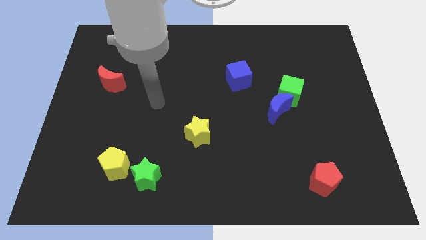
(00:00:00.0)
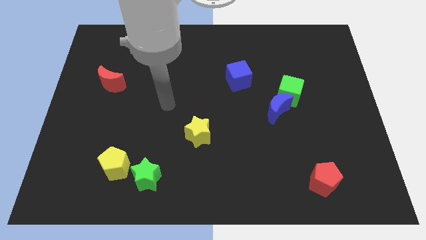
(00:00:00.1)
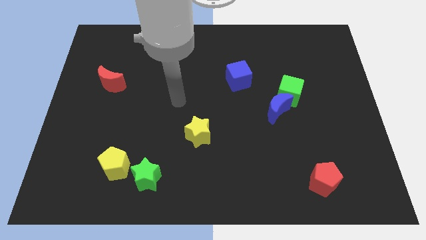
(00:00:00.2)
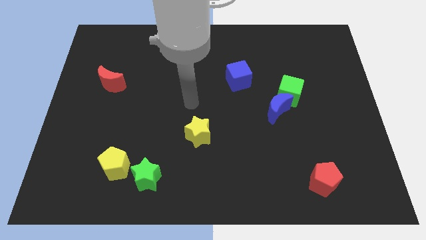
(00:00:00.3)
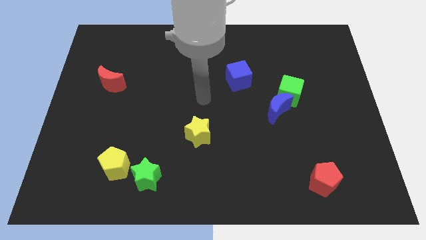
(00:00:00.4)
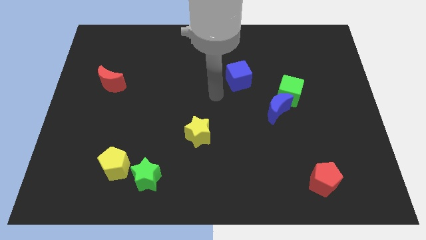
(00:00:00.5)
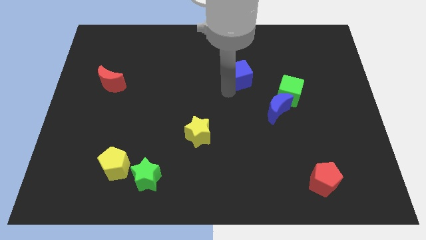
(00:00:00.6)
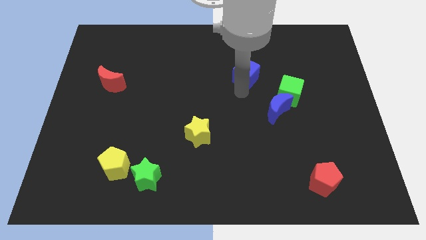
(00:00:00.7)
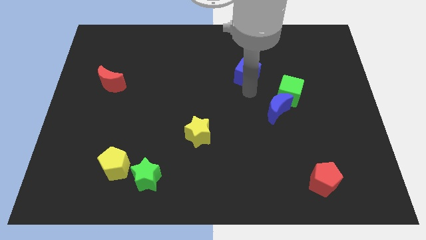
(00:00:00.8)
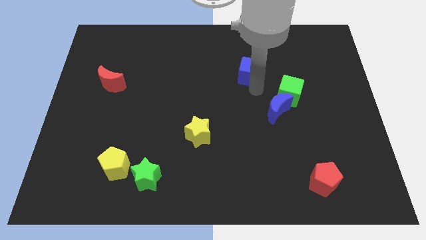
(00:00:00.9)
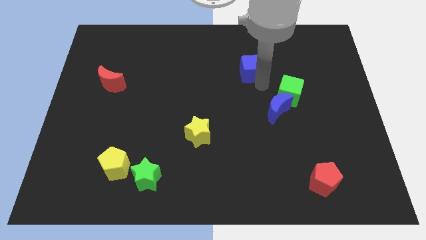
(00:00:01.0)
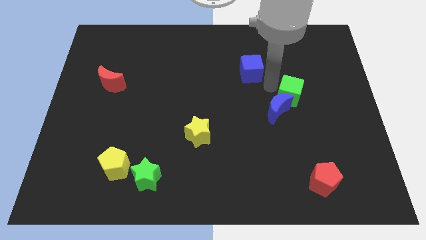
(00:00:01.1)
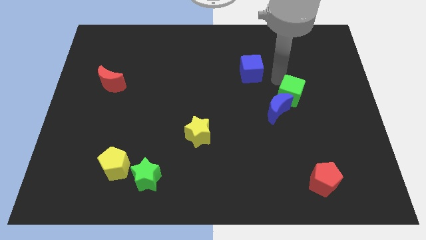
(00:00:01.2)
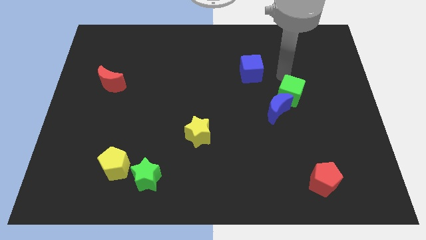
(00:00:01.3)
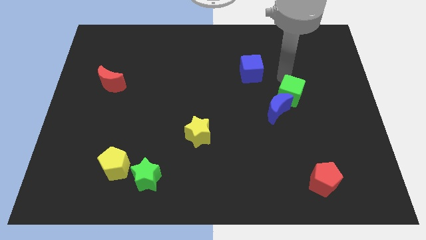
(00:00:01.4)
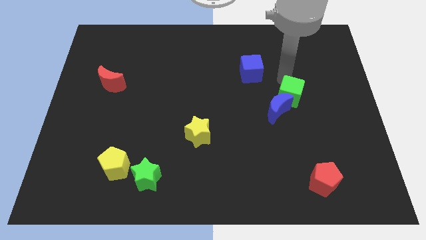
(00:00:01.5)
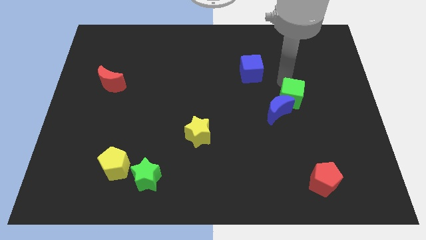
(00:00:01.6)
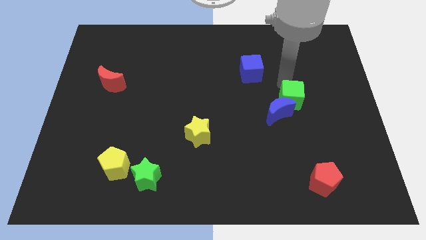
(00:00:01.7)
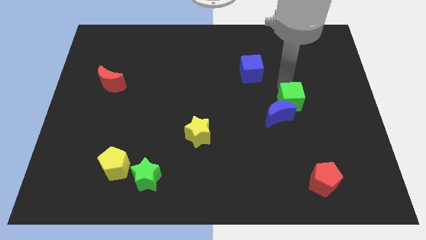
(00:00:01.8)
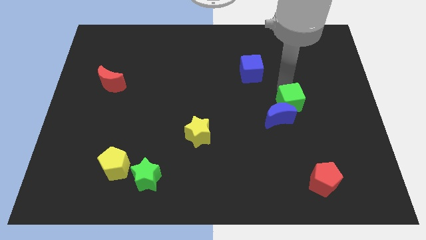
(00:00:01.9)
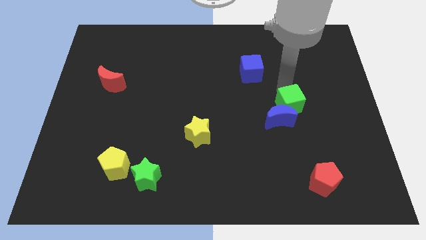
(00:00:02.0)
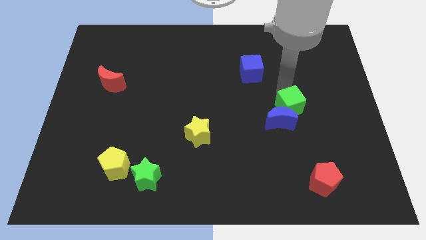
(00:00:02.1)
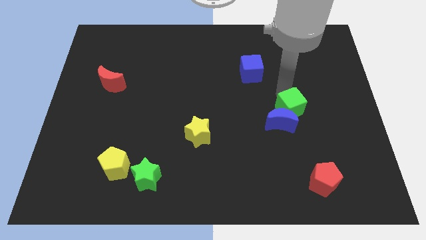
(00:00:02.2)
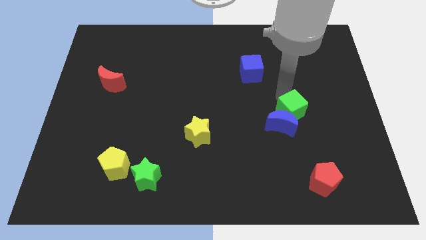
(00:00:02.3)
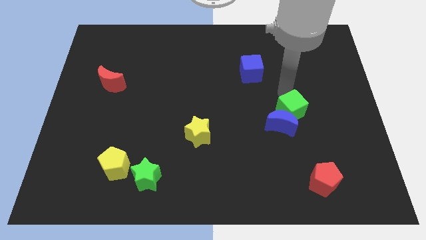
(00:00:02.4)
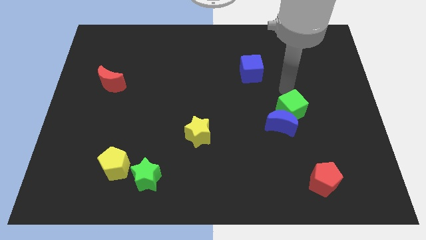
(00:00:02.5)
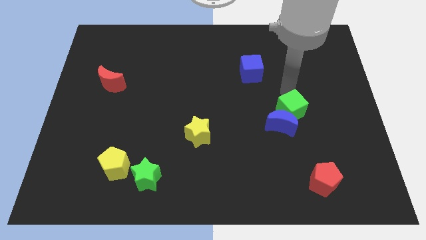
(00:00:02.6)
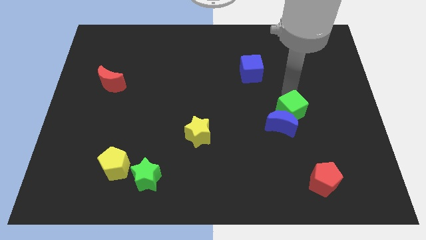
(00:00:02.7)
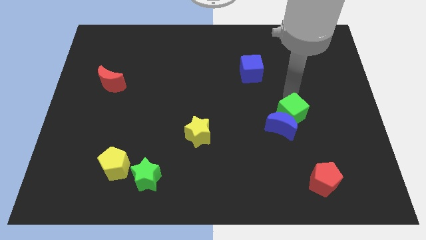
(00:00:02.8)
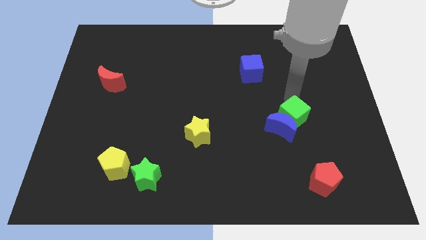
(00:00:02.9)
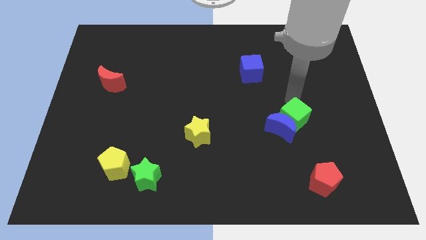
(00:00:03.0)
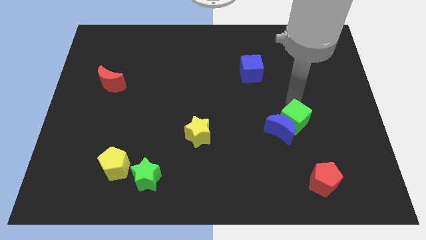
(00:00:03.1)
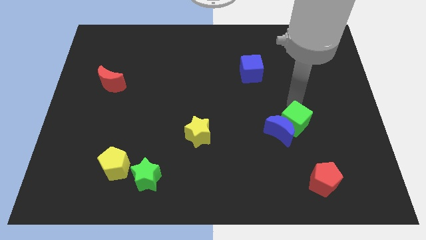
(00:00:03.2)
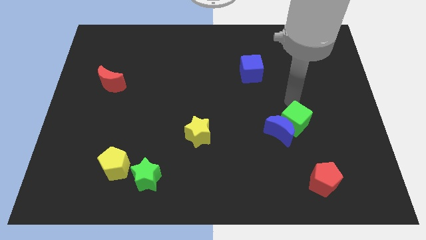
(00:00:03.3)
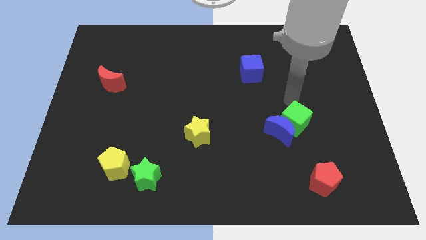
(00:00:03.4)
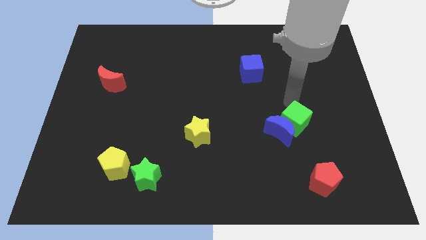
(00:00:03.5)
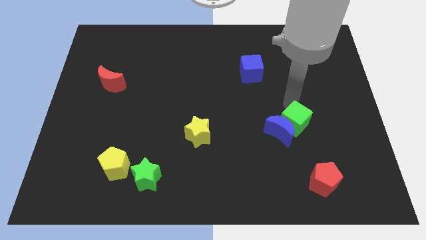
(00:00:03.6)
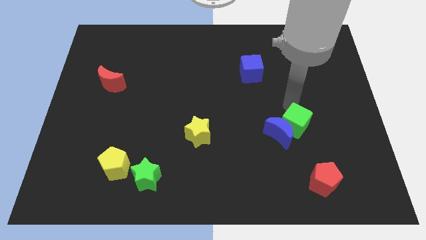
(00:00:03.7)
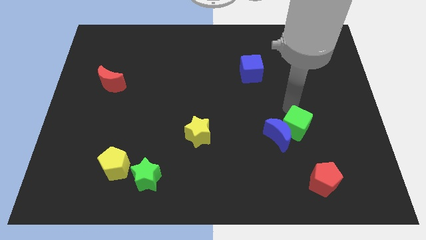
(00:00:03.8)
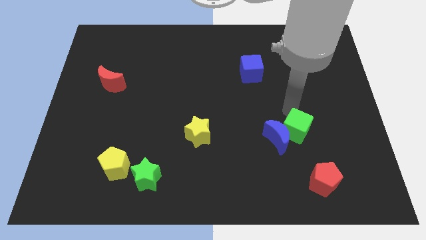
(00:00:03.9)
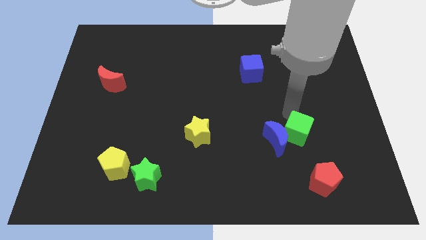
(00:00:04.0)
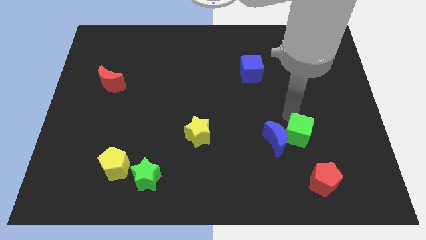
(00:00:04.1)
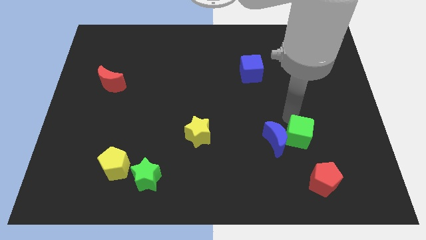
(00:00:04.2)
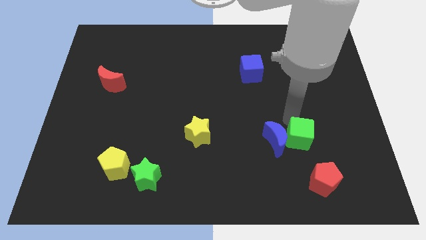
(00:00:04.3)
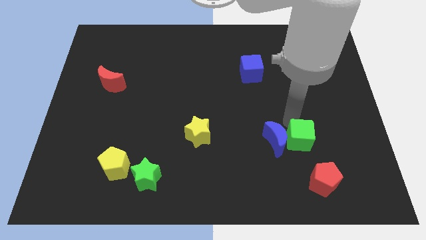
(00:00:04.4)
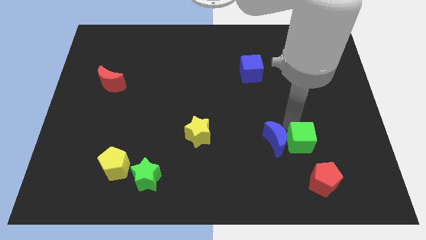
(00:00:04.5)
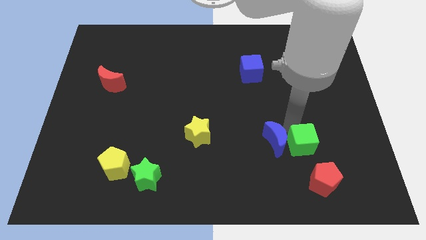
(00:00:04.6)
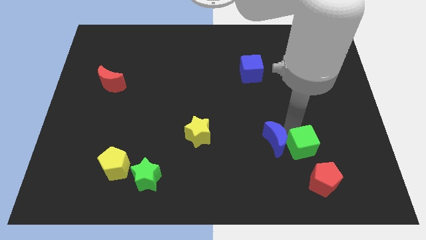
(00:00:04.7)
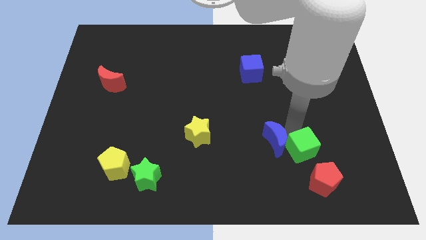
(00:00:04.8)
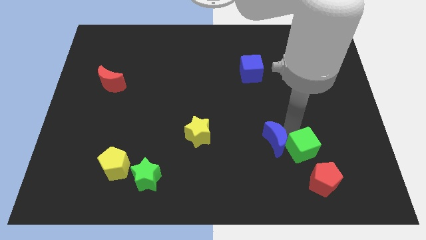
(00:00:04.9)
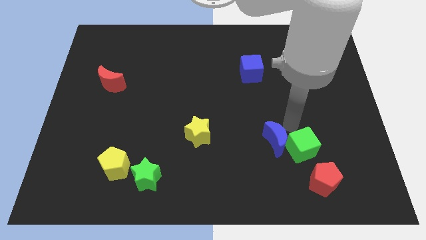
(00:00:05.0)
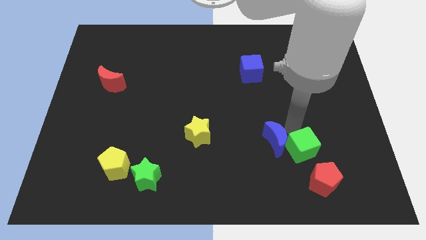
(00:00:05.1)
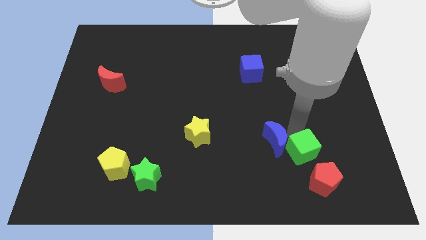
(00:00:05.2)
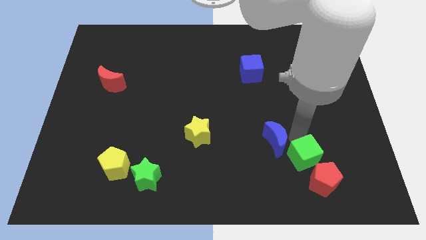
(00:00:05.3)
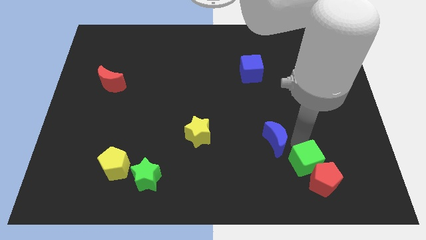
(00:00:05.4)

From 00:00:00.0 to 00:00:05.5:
move the green cube next to the red pentagon

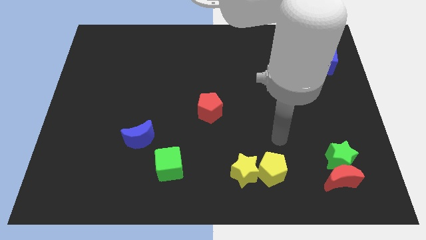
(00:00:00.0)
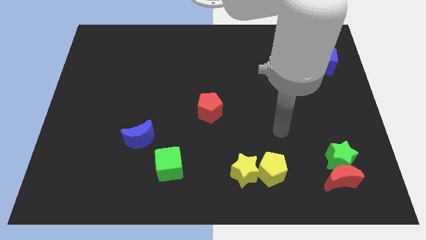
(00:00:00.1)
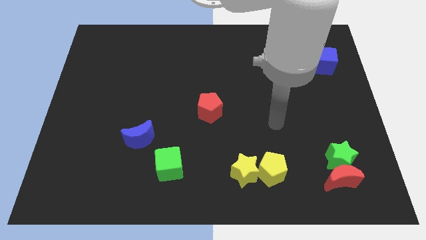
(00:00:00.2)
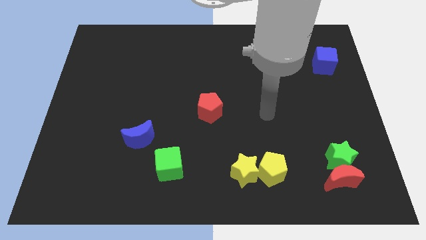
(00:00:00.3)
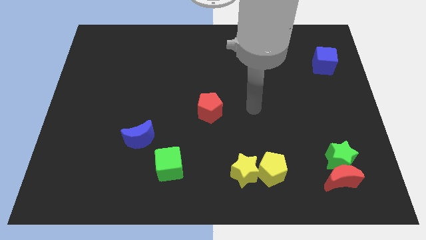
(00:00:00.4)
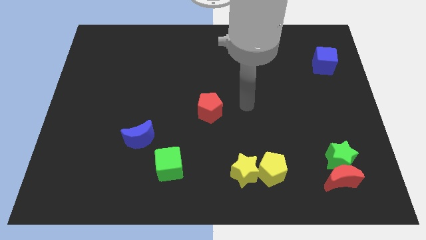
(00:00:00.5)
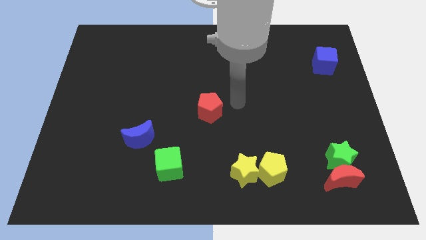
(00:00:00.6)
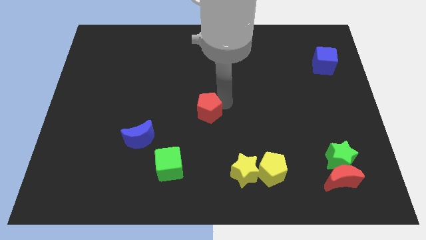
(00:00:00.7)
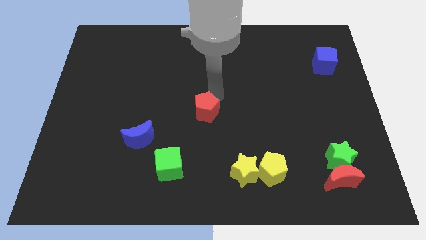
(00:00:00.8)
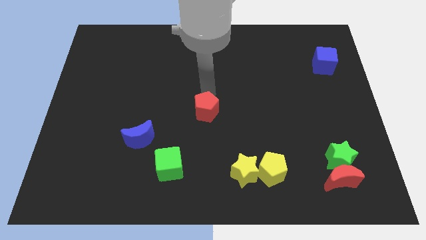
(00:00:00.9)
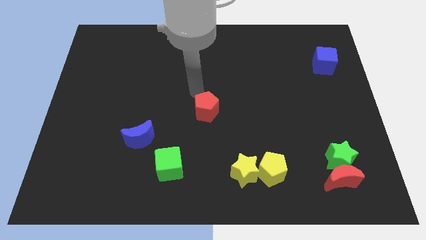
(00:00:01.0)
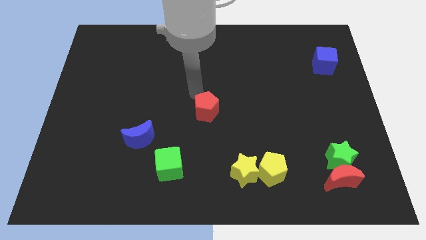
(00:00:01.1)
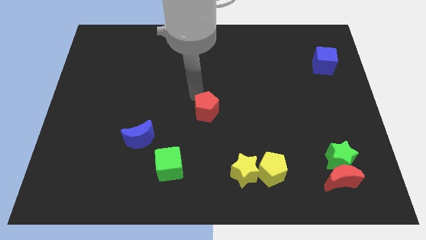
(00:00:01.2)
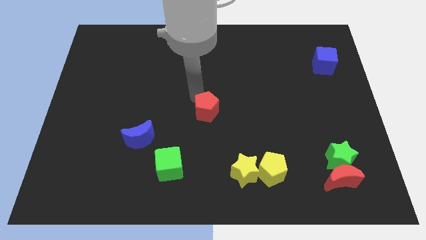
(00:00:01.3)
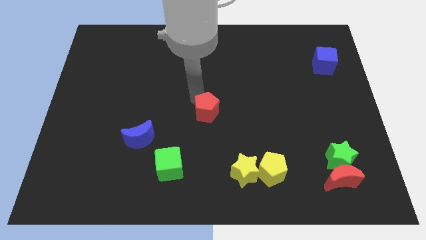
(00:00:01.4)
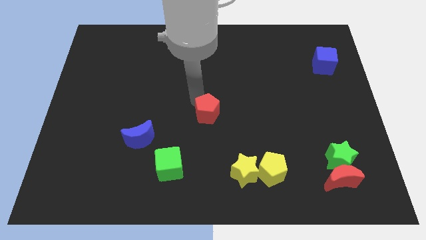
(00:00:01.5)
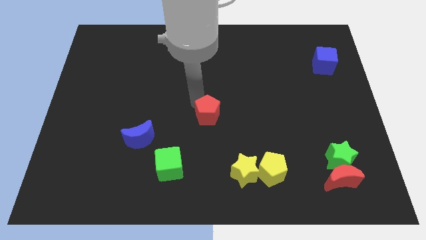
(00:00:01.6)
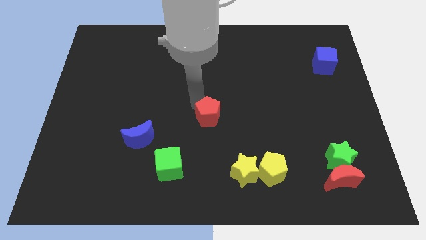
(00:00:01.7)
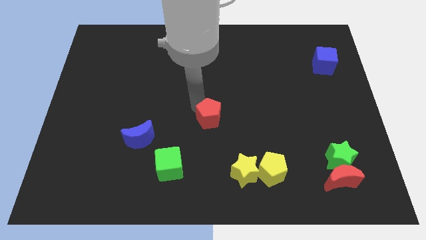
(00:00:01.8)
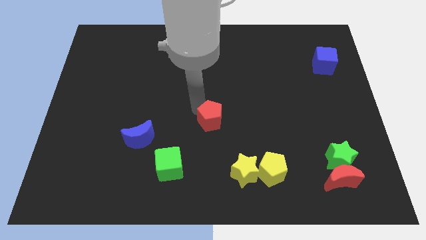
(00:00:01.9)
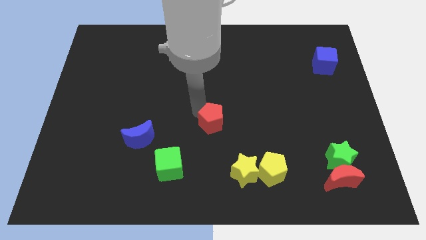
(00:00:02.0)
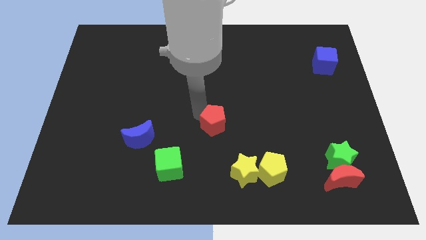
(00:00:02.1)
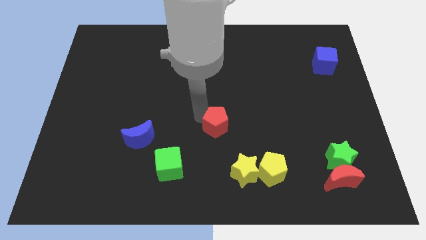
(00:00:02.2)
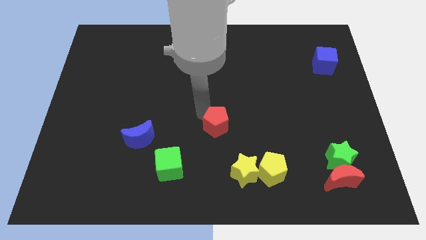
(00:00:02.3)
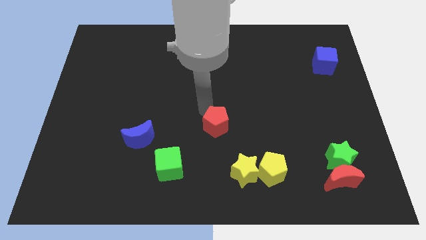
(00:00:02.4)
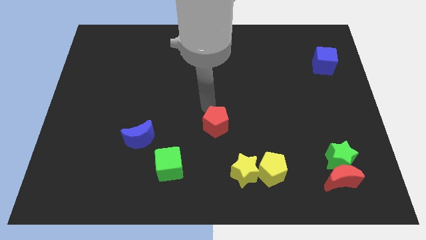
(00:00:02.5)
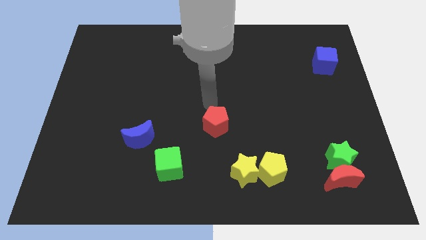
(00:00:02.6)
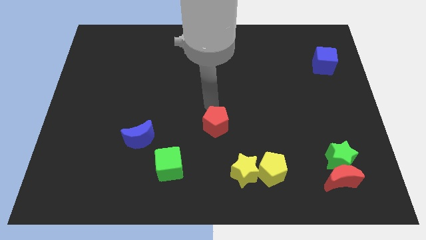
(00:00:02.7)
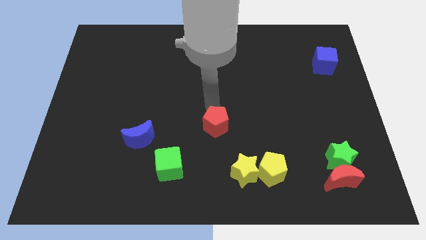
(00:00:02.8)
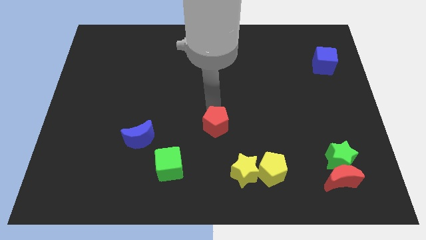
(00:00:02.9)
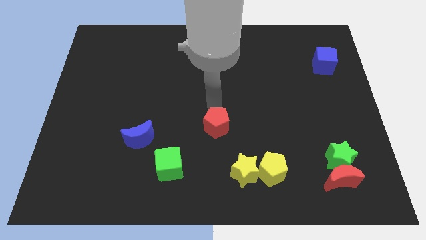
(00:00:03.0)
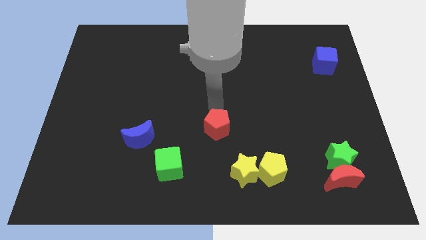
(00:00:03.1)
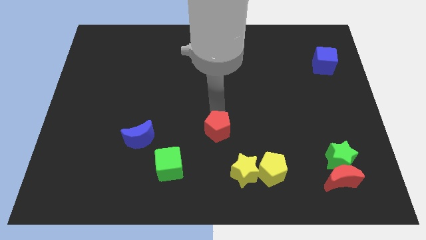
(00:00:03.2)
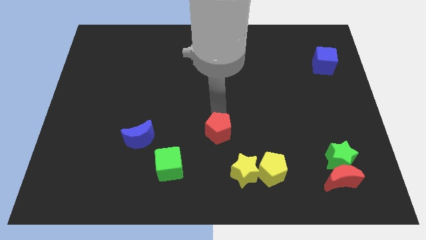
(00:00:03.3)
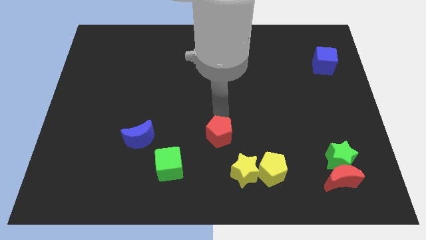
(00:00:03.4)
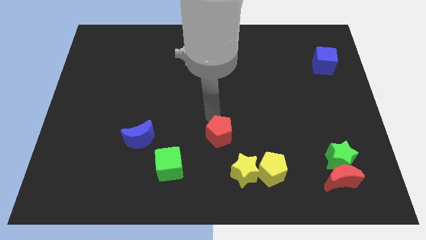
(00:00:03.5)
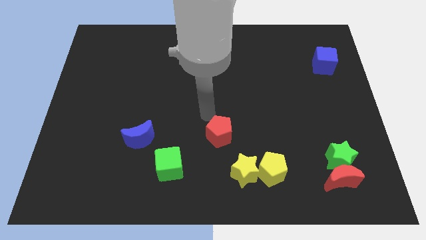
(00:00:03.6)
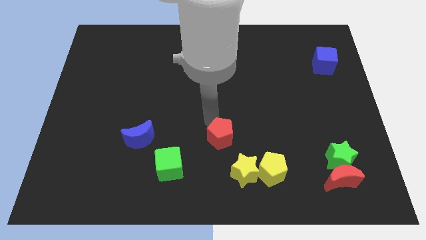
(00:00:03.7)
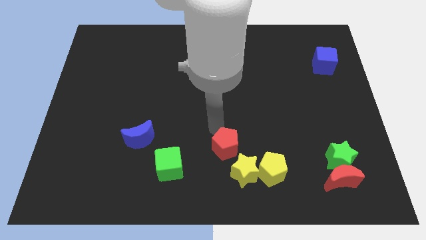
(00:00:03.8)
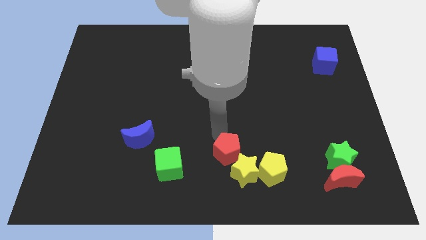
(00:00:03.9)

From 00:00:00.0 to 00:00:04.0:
slide the red pentagon to the yellow star
